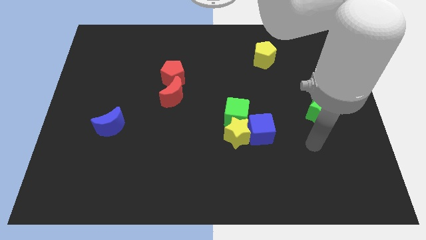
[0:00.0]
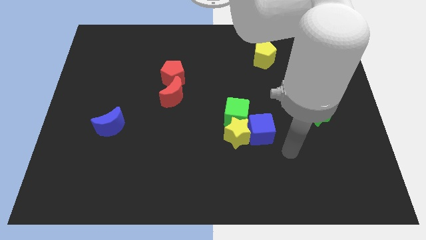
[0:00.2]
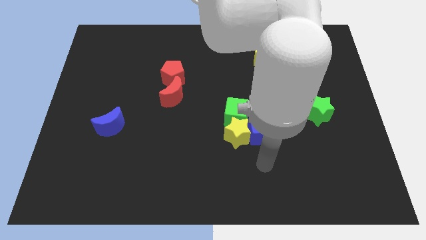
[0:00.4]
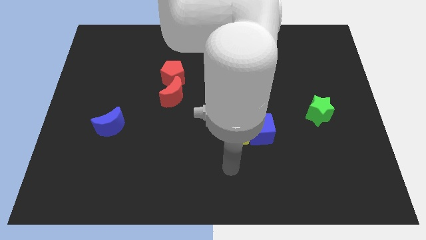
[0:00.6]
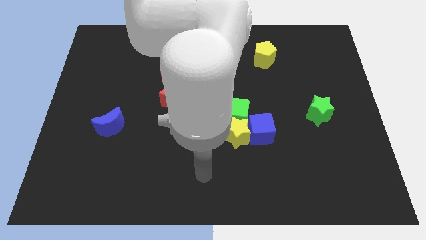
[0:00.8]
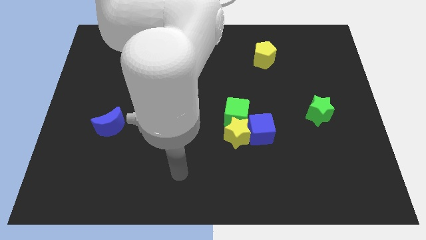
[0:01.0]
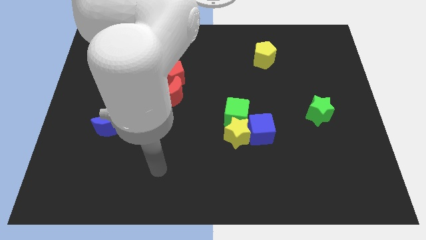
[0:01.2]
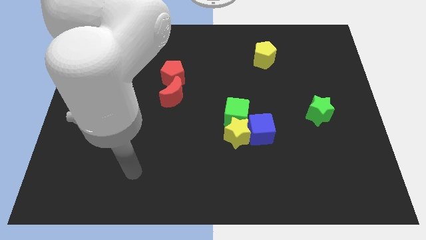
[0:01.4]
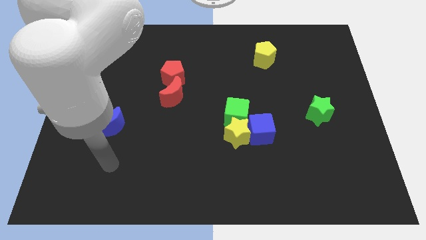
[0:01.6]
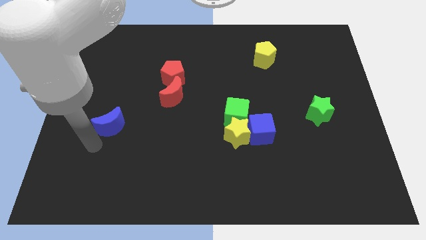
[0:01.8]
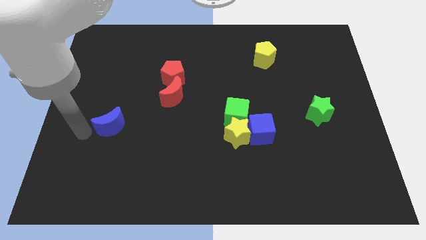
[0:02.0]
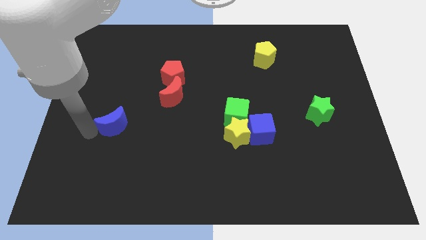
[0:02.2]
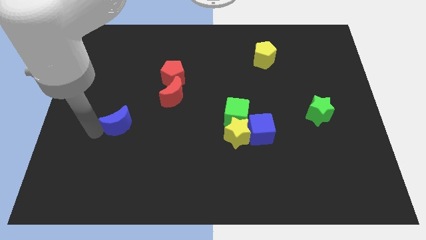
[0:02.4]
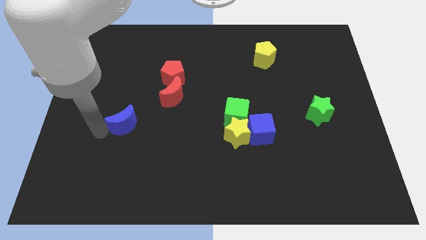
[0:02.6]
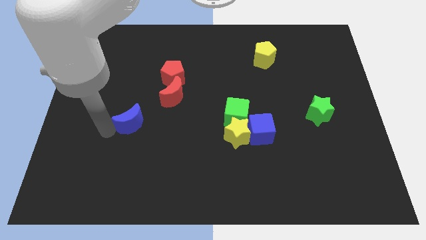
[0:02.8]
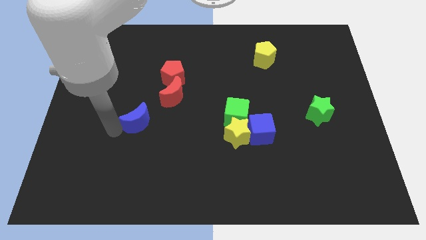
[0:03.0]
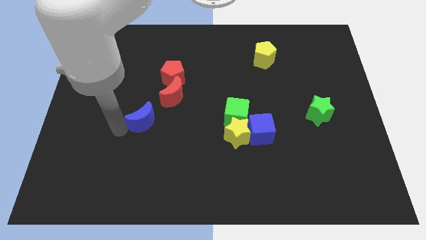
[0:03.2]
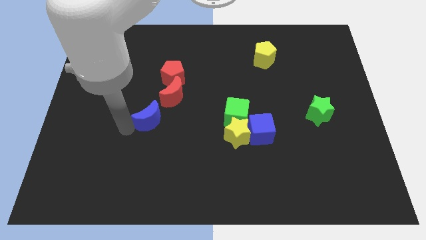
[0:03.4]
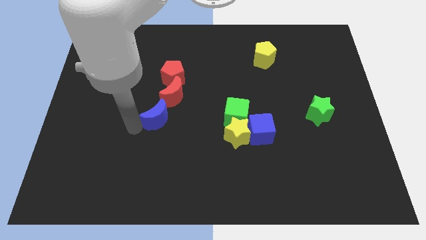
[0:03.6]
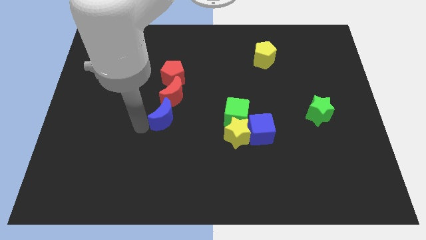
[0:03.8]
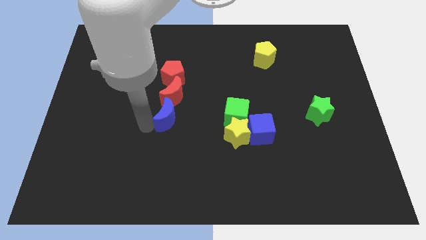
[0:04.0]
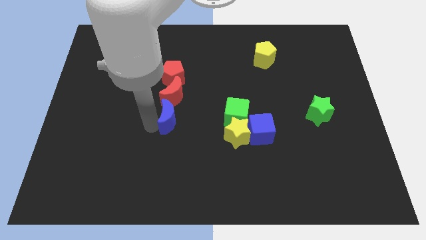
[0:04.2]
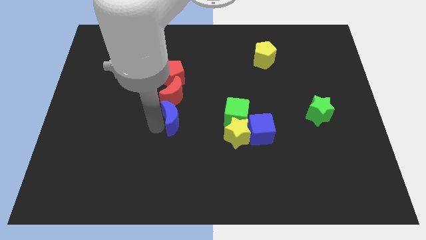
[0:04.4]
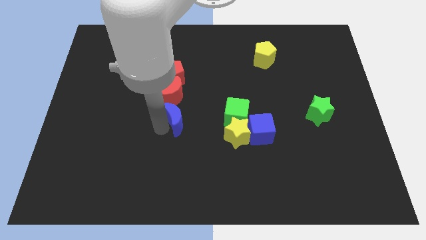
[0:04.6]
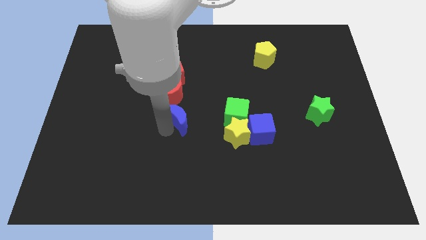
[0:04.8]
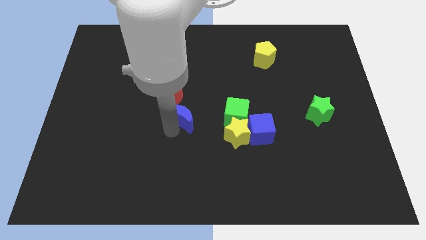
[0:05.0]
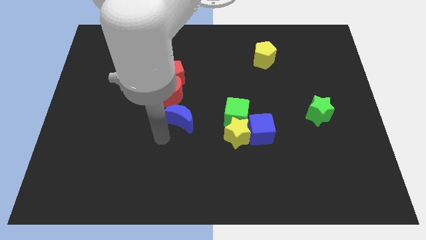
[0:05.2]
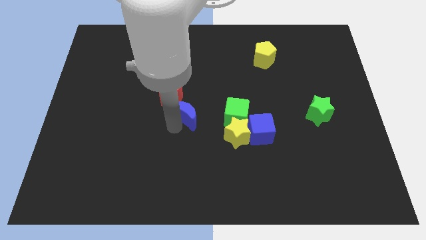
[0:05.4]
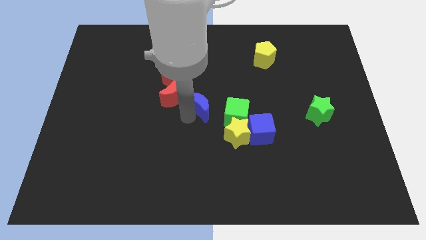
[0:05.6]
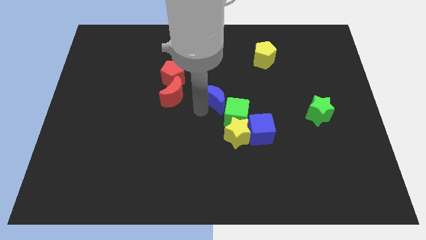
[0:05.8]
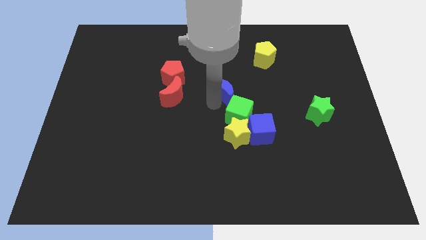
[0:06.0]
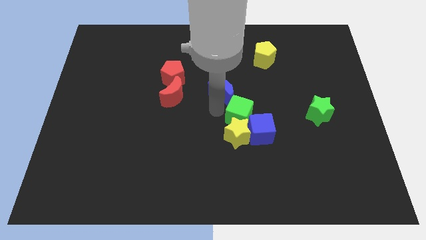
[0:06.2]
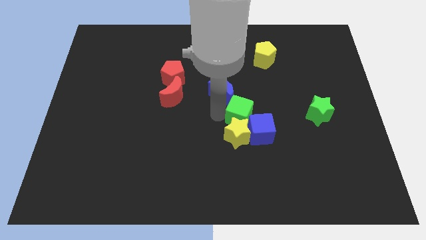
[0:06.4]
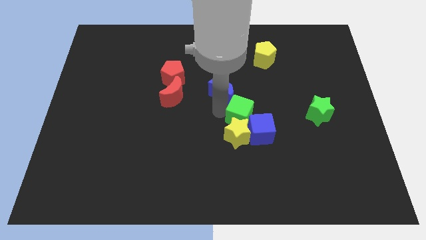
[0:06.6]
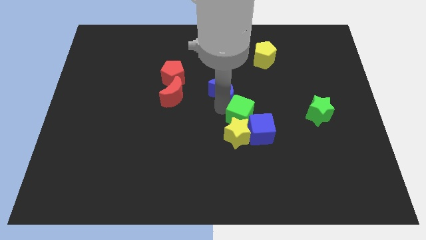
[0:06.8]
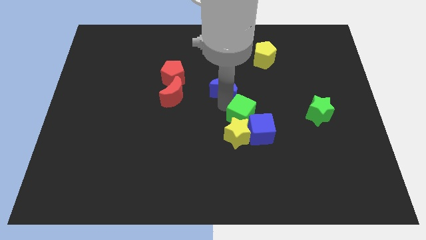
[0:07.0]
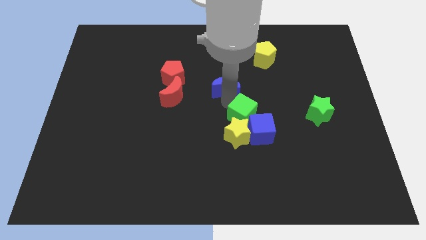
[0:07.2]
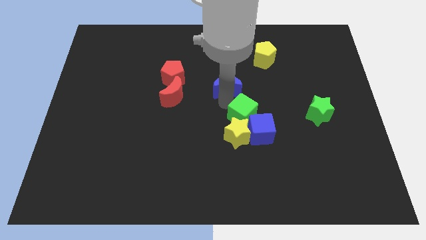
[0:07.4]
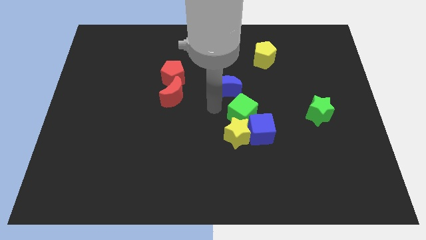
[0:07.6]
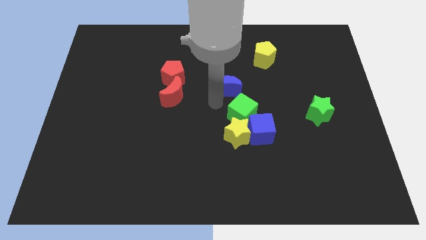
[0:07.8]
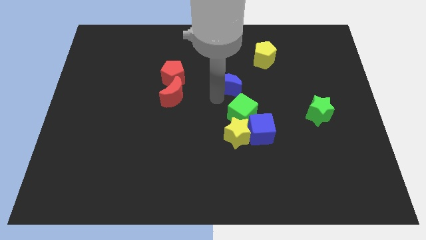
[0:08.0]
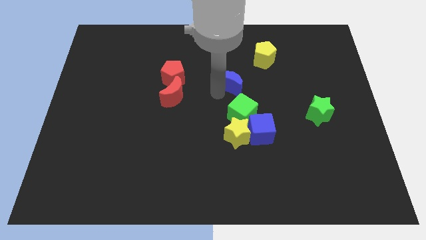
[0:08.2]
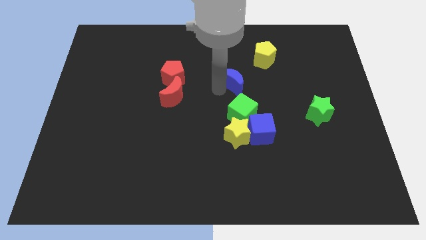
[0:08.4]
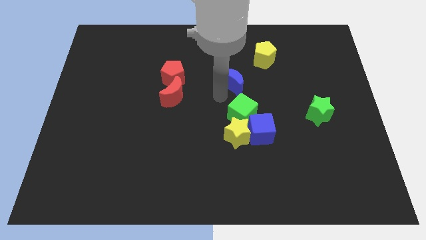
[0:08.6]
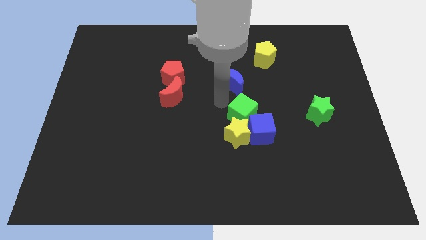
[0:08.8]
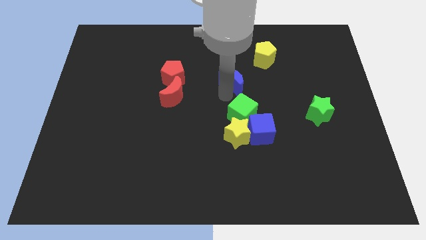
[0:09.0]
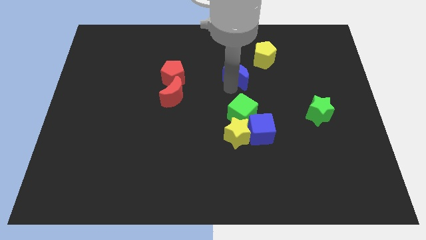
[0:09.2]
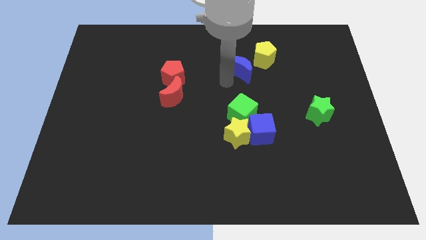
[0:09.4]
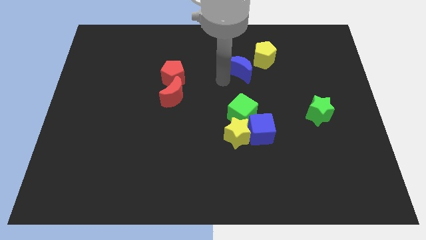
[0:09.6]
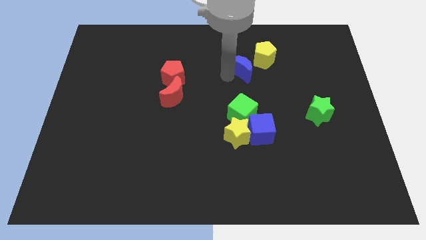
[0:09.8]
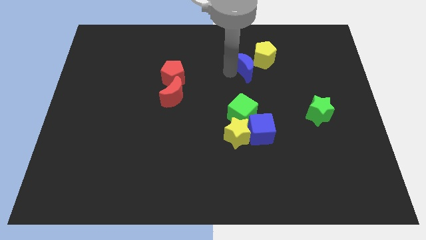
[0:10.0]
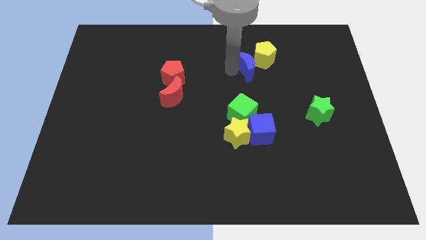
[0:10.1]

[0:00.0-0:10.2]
push the blue moon to the yellow pentagon

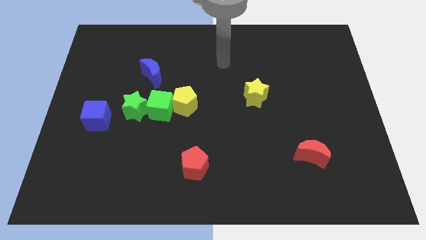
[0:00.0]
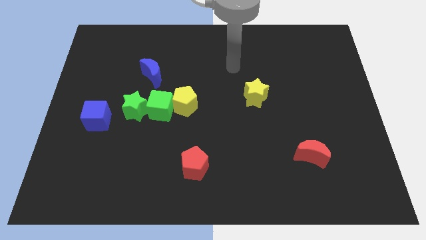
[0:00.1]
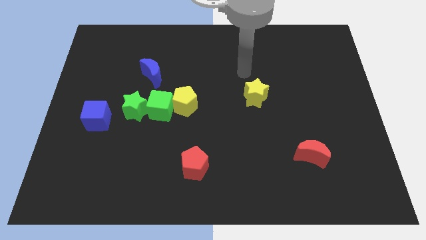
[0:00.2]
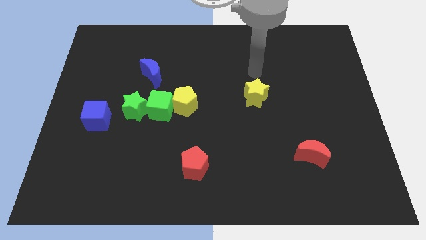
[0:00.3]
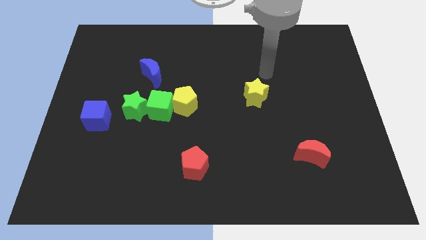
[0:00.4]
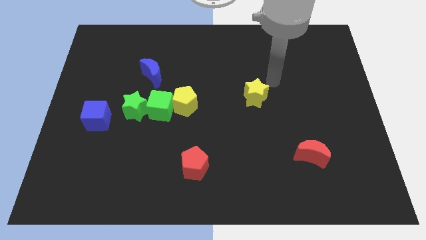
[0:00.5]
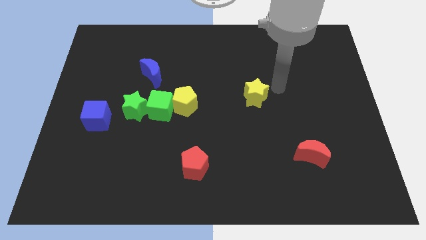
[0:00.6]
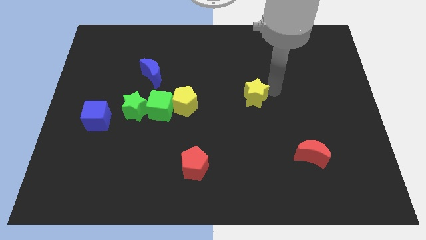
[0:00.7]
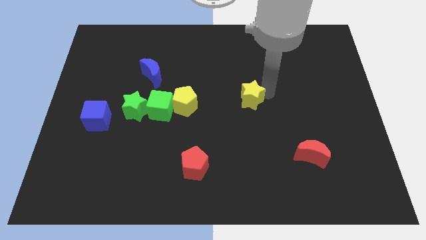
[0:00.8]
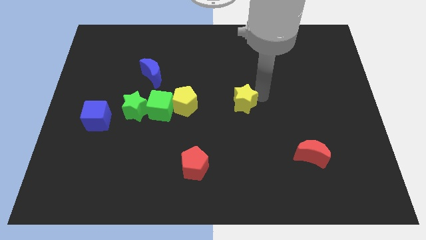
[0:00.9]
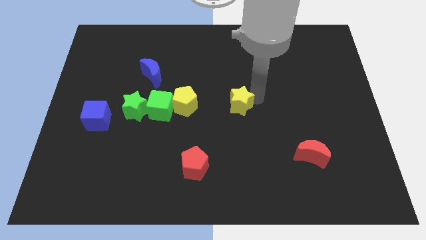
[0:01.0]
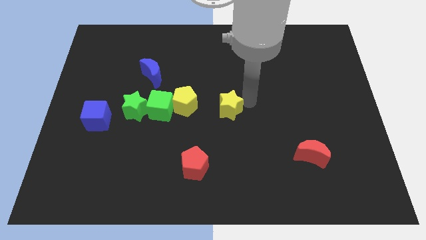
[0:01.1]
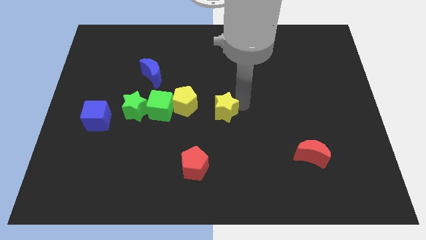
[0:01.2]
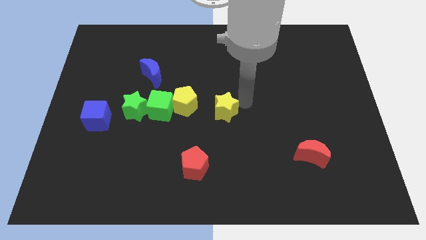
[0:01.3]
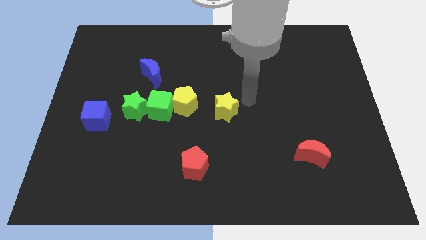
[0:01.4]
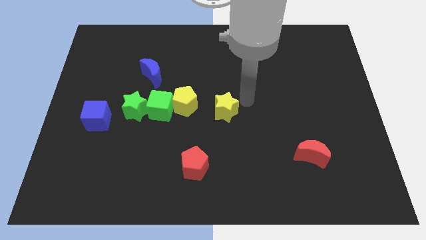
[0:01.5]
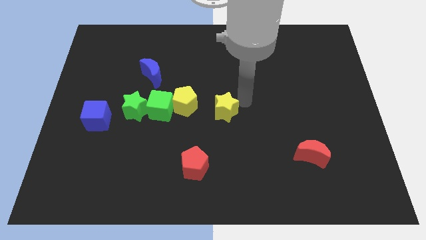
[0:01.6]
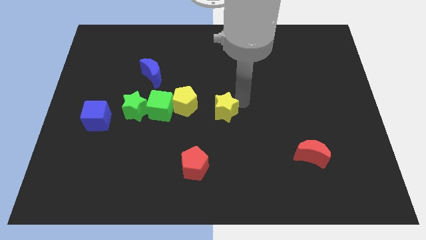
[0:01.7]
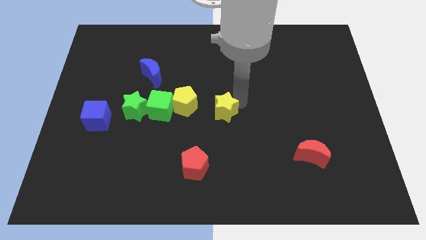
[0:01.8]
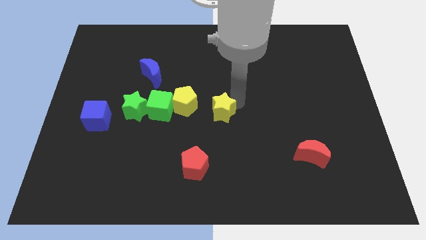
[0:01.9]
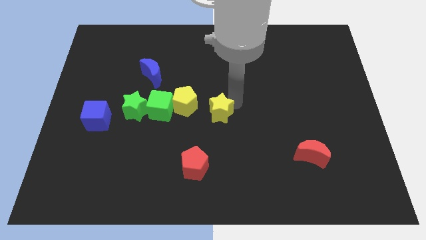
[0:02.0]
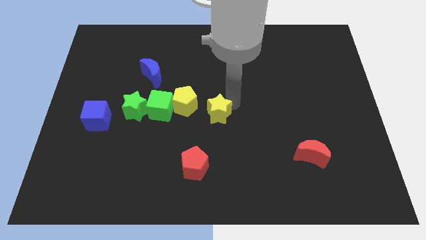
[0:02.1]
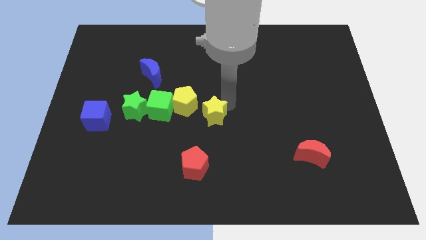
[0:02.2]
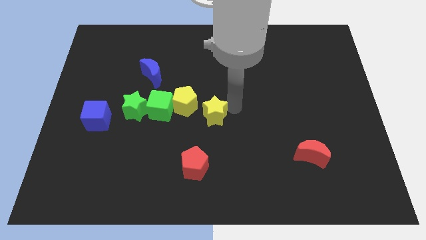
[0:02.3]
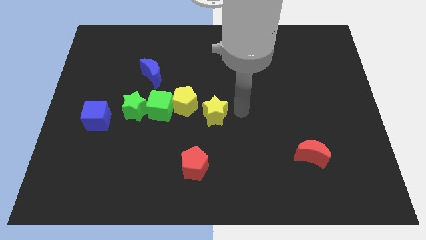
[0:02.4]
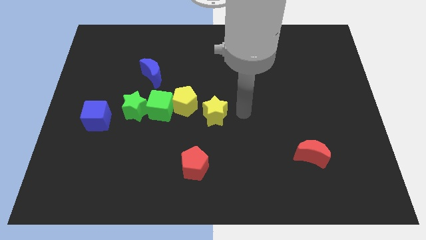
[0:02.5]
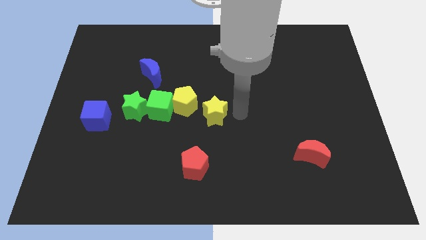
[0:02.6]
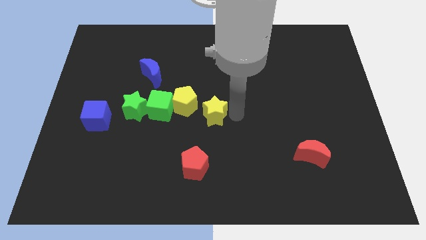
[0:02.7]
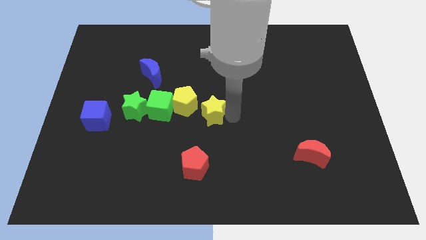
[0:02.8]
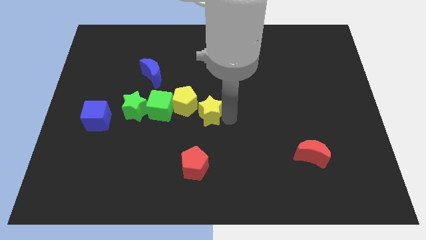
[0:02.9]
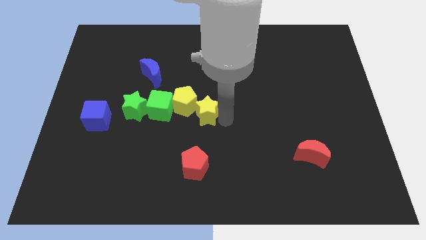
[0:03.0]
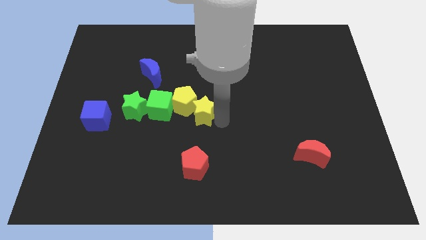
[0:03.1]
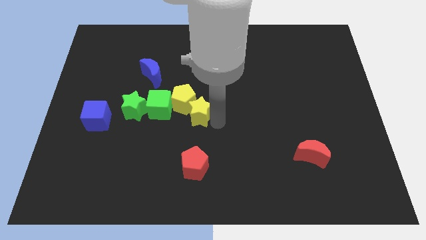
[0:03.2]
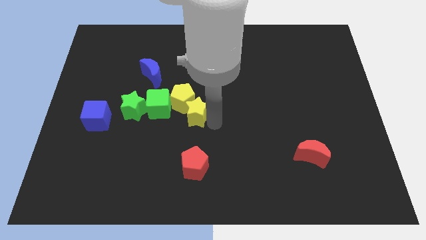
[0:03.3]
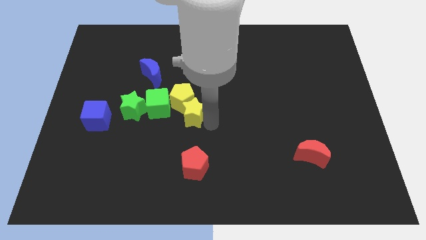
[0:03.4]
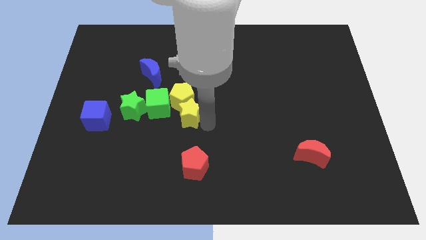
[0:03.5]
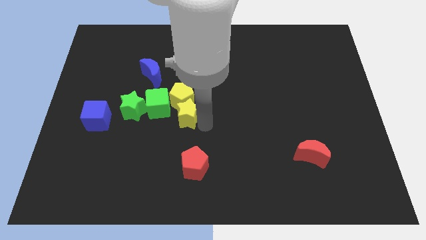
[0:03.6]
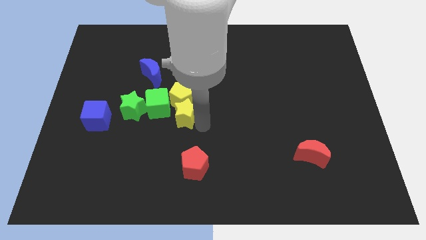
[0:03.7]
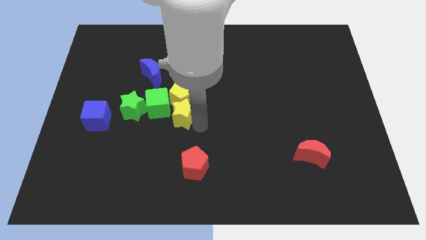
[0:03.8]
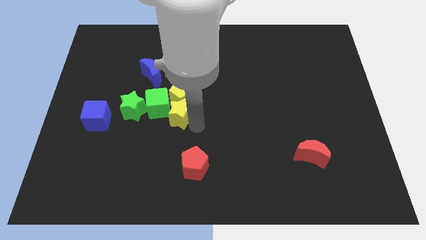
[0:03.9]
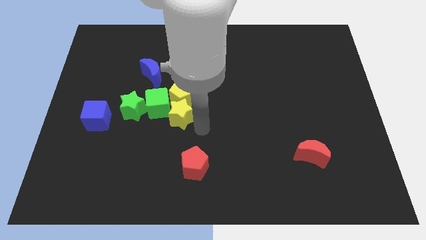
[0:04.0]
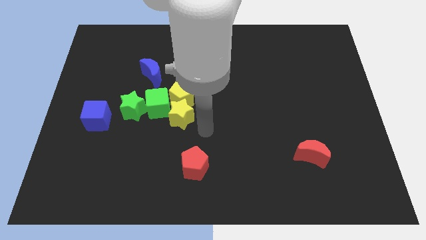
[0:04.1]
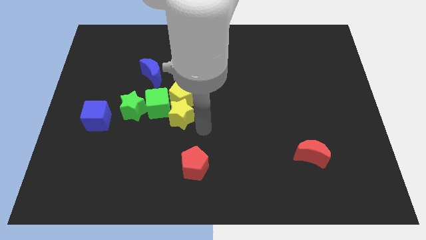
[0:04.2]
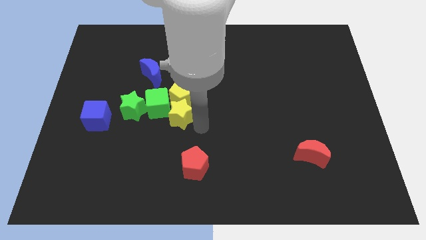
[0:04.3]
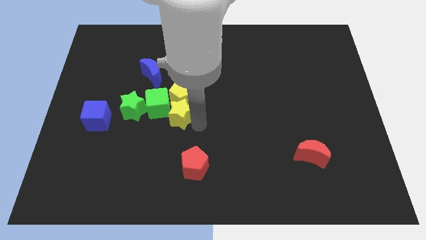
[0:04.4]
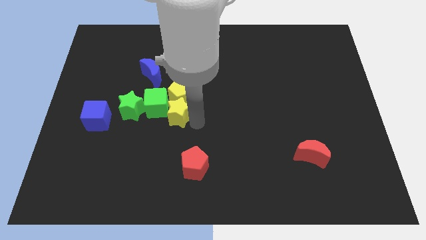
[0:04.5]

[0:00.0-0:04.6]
put the yellow star towards the green cube
